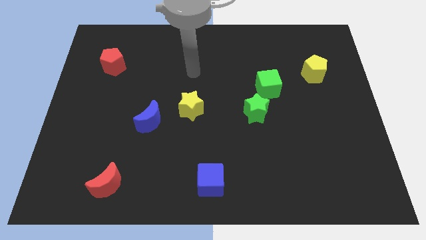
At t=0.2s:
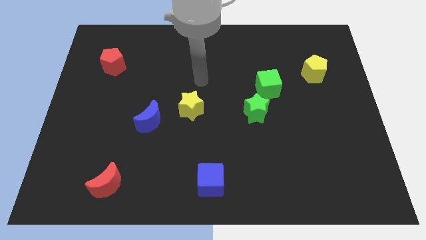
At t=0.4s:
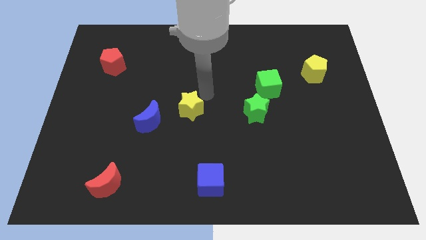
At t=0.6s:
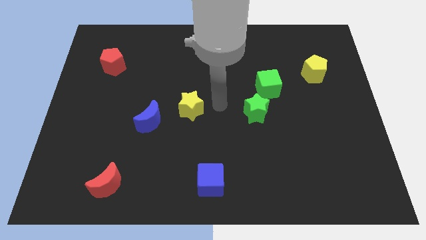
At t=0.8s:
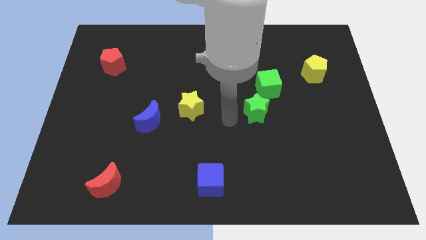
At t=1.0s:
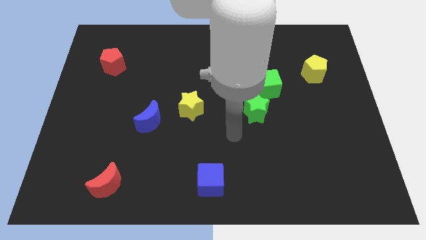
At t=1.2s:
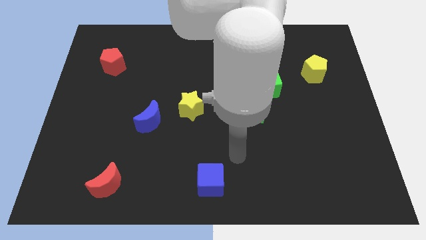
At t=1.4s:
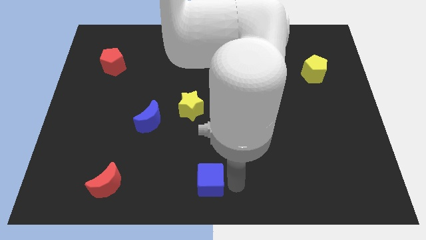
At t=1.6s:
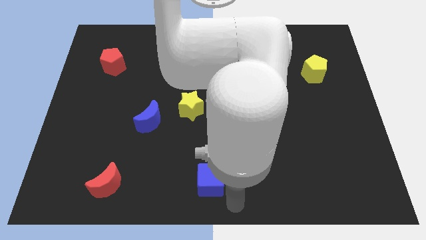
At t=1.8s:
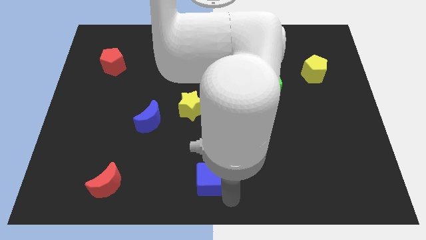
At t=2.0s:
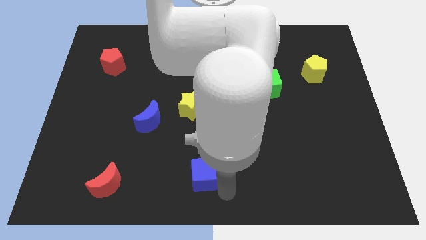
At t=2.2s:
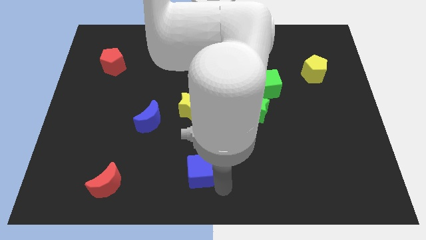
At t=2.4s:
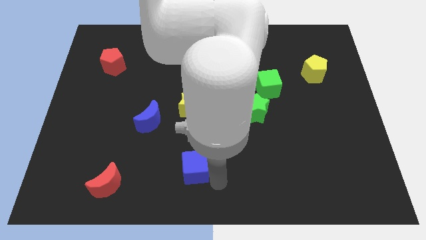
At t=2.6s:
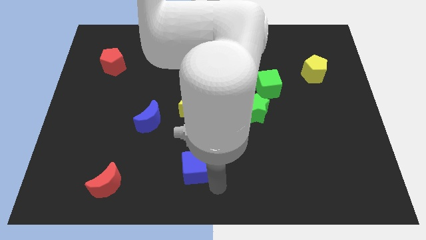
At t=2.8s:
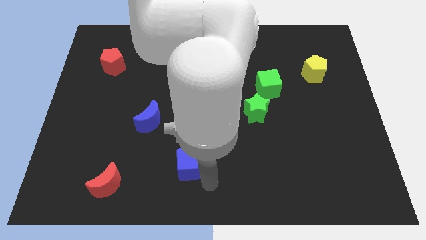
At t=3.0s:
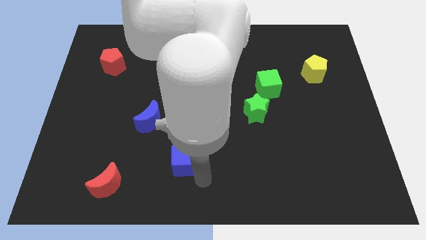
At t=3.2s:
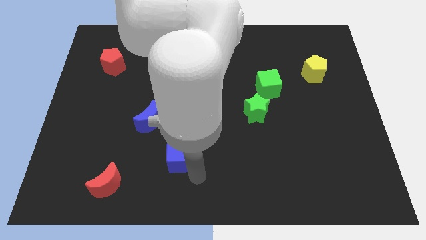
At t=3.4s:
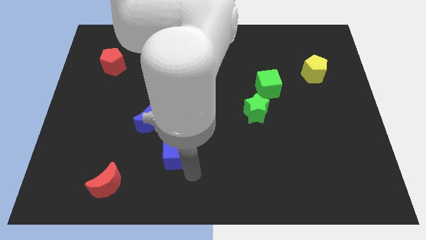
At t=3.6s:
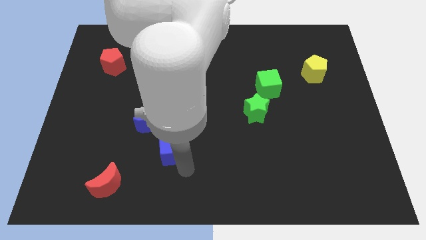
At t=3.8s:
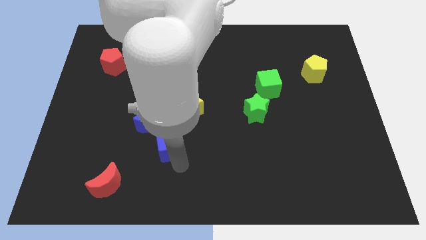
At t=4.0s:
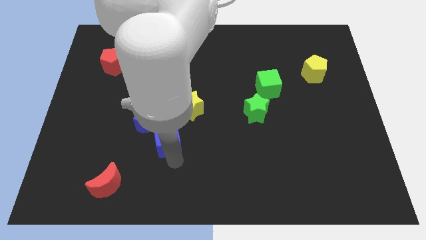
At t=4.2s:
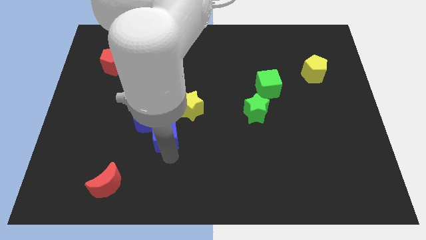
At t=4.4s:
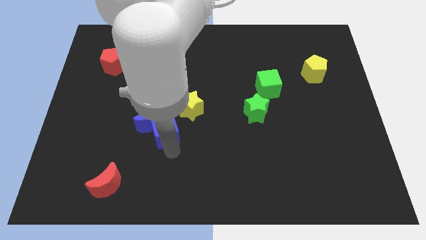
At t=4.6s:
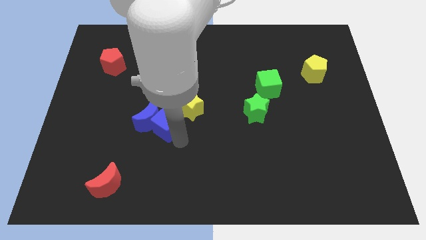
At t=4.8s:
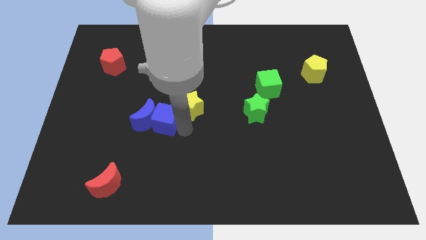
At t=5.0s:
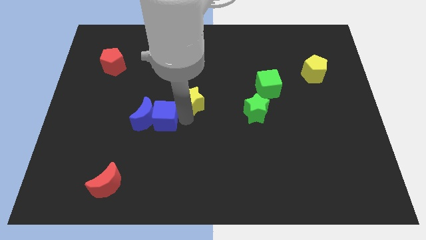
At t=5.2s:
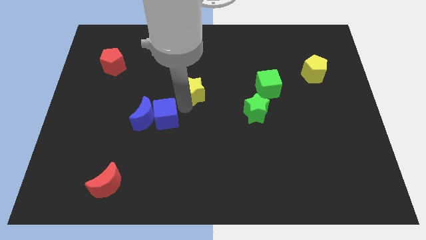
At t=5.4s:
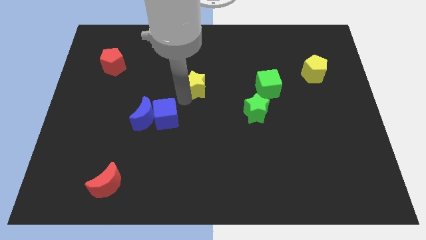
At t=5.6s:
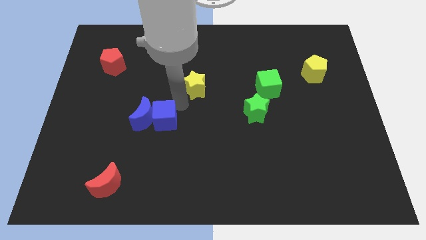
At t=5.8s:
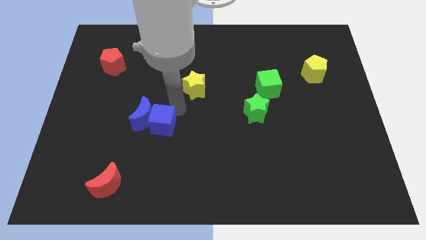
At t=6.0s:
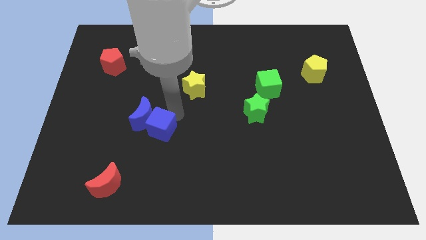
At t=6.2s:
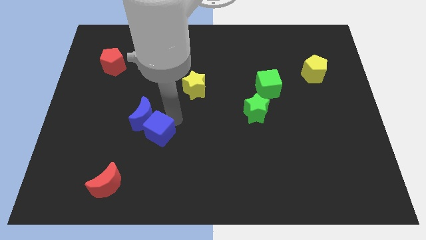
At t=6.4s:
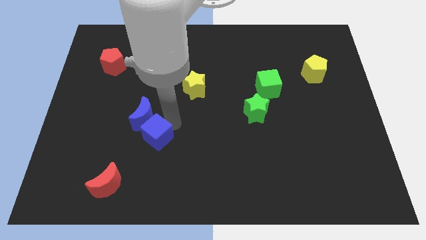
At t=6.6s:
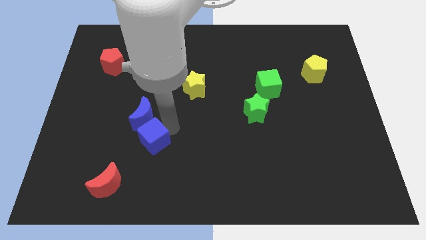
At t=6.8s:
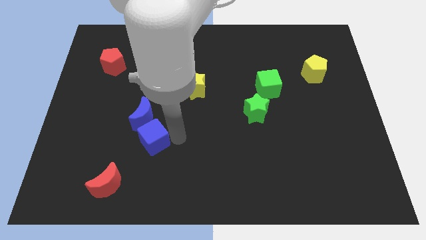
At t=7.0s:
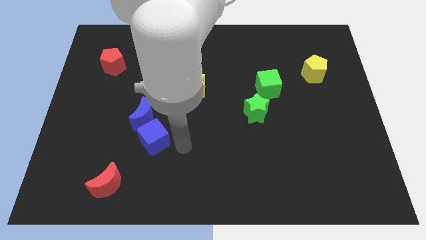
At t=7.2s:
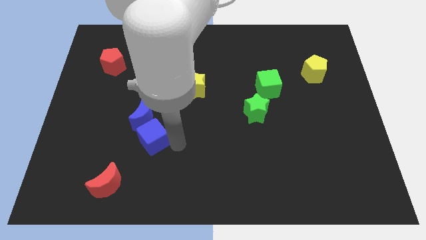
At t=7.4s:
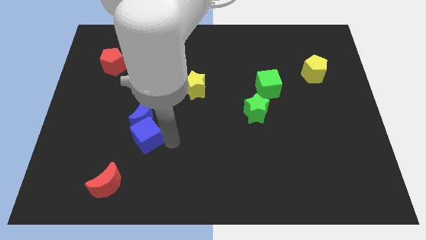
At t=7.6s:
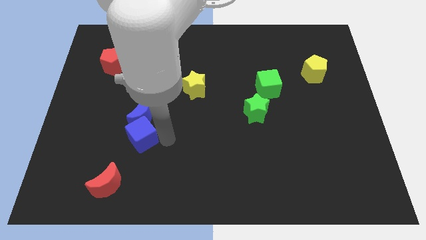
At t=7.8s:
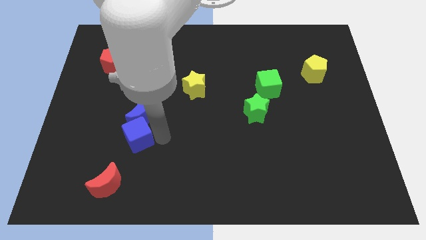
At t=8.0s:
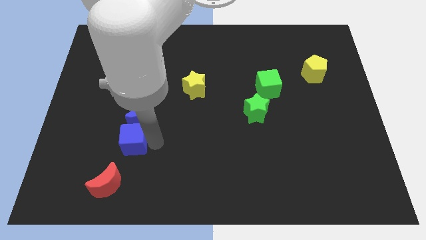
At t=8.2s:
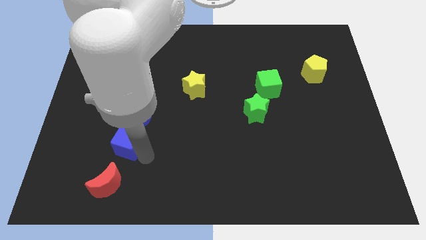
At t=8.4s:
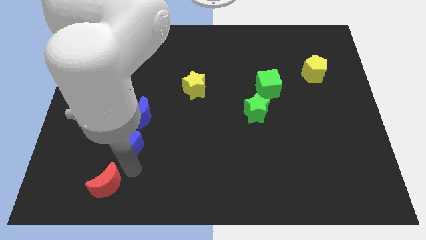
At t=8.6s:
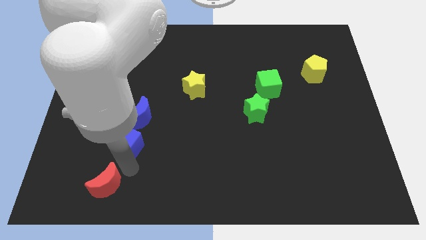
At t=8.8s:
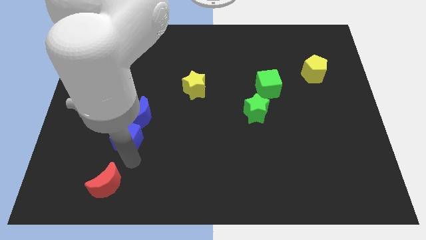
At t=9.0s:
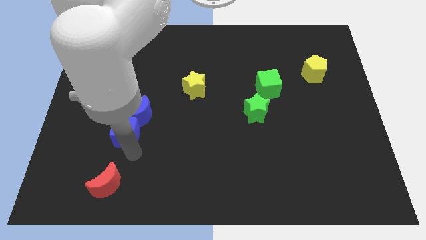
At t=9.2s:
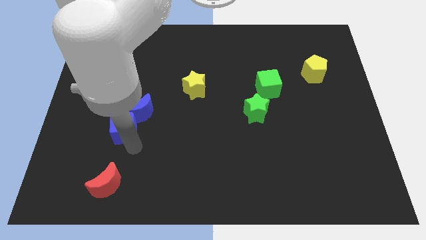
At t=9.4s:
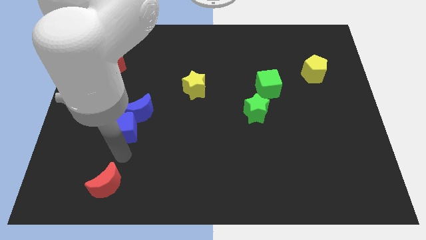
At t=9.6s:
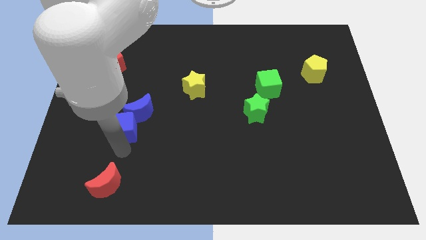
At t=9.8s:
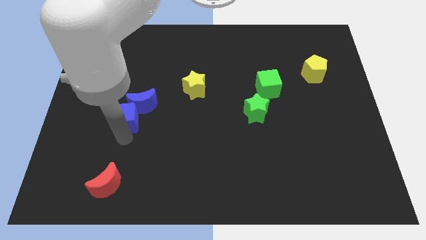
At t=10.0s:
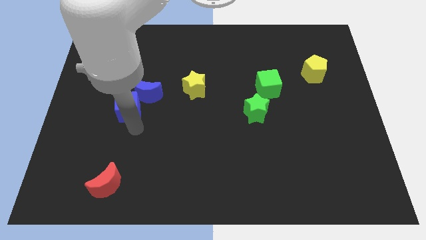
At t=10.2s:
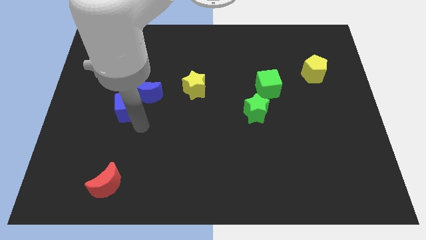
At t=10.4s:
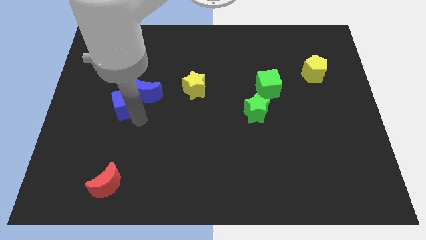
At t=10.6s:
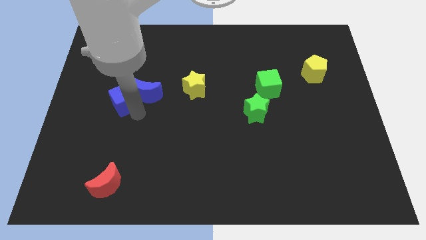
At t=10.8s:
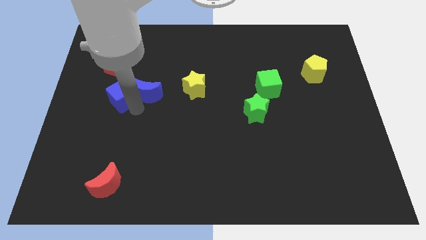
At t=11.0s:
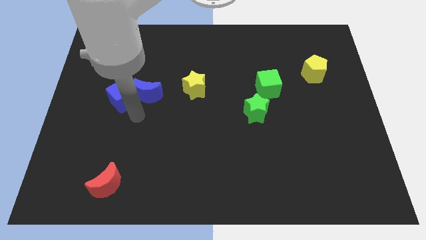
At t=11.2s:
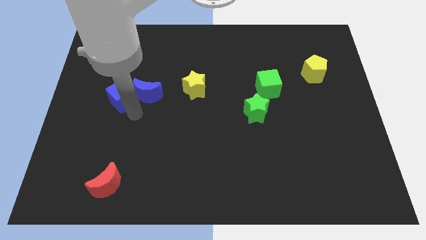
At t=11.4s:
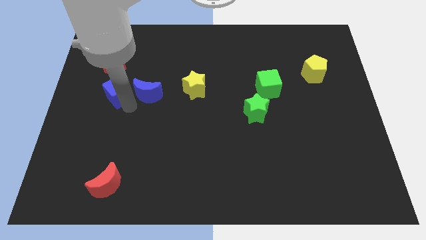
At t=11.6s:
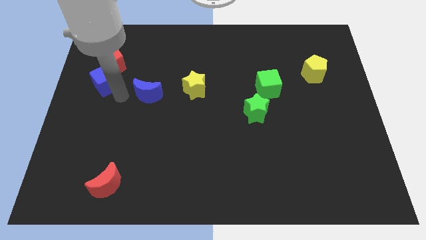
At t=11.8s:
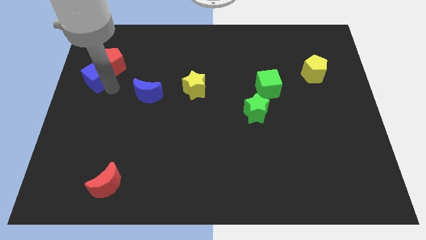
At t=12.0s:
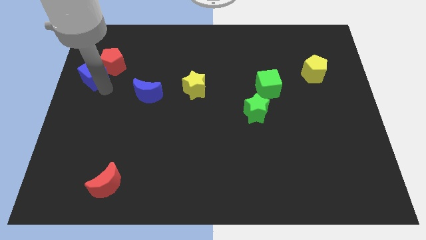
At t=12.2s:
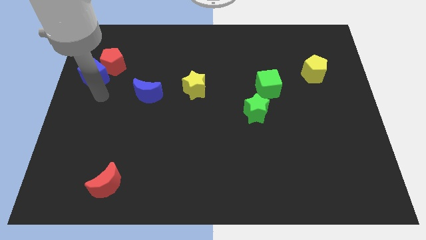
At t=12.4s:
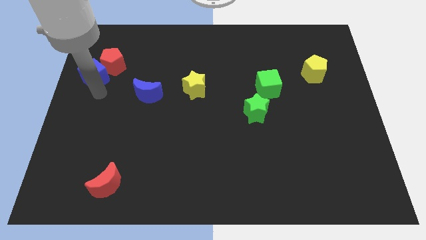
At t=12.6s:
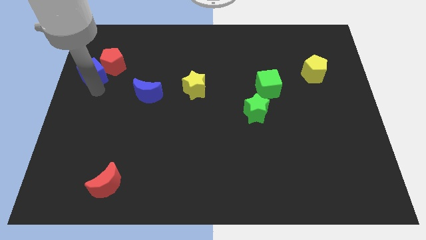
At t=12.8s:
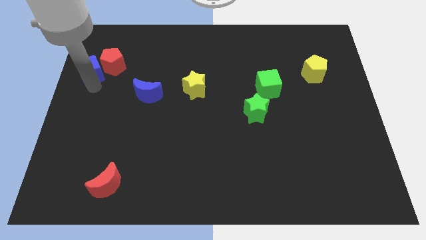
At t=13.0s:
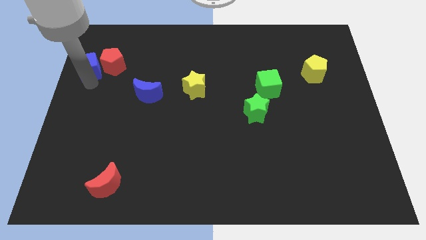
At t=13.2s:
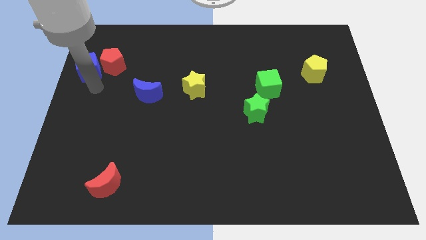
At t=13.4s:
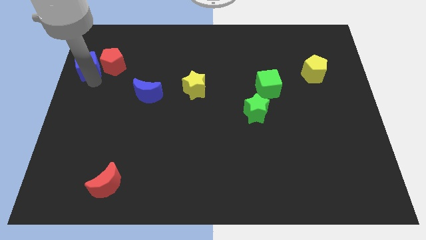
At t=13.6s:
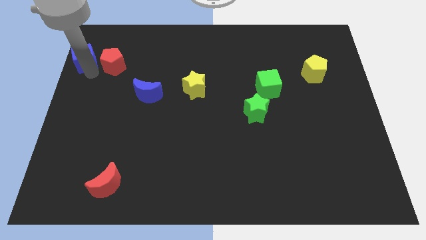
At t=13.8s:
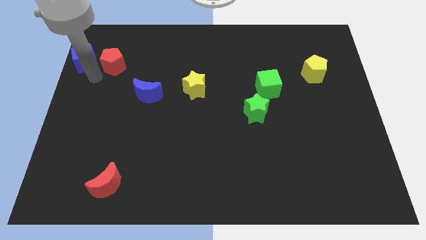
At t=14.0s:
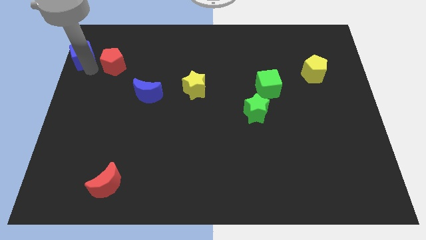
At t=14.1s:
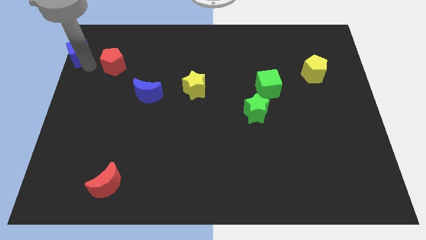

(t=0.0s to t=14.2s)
move the blue cube to the top left corner
